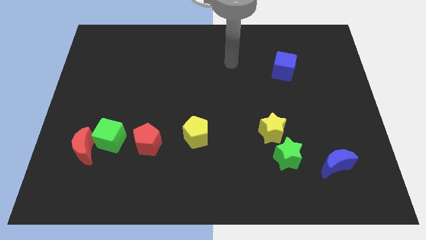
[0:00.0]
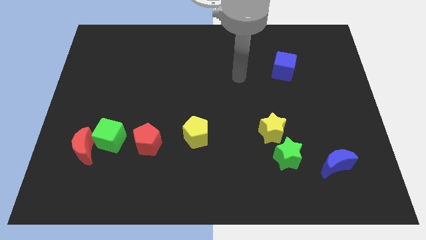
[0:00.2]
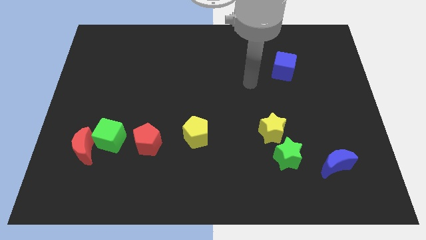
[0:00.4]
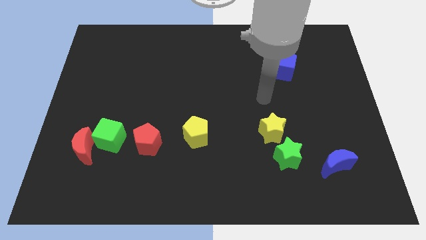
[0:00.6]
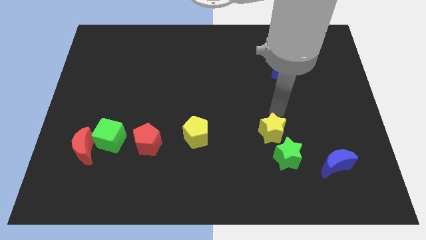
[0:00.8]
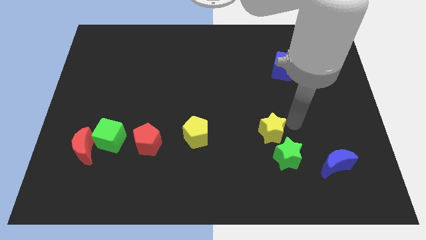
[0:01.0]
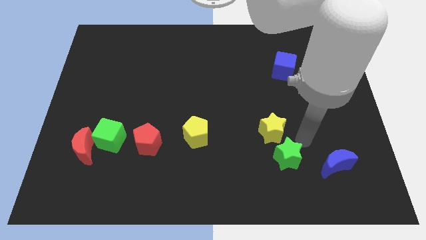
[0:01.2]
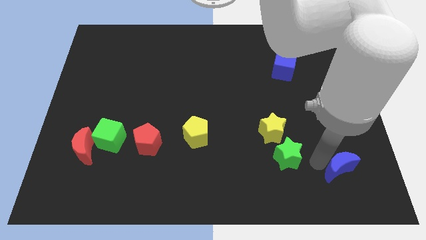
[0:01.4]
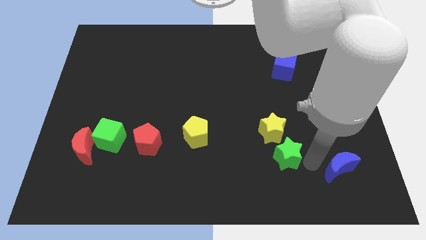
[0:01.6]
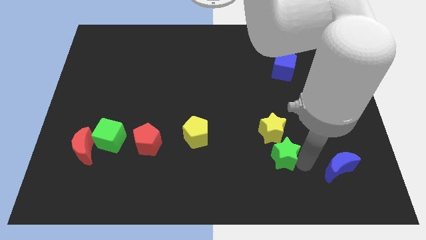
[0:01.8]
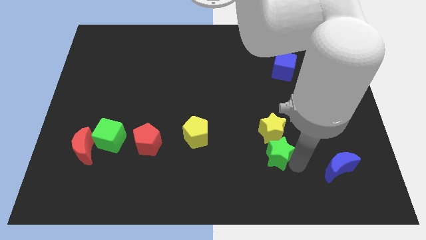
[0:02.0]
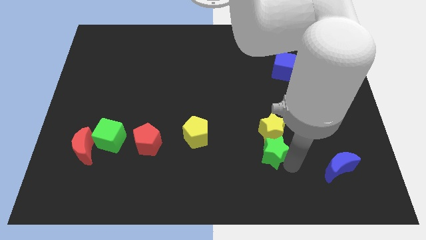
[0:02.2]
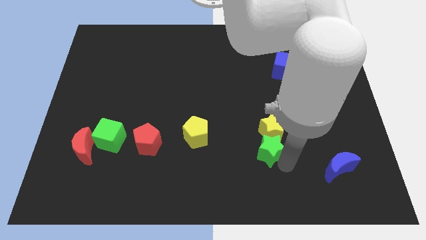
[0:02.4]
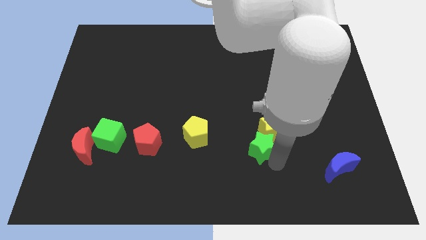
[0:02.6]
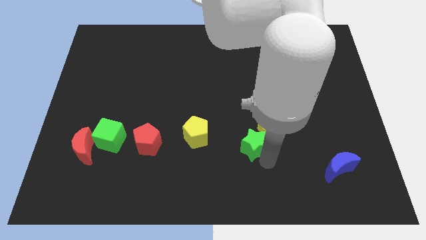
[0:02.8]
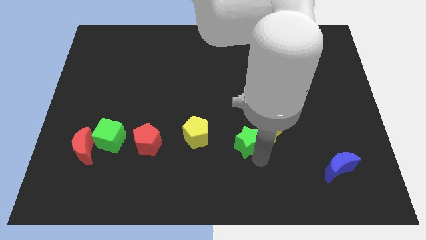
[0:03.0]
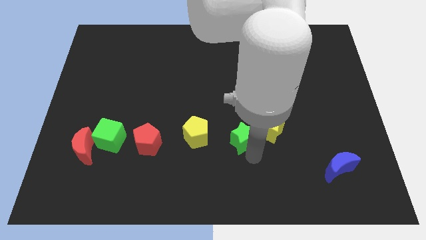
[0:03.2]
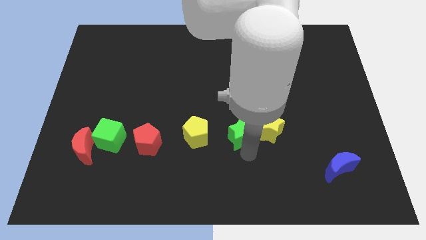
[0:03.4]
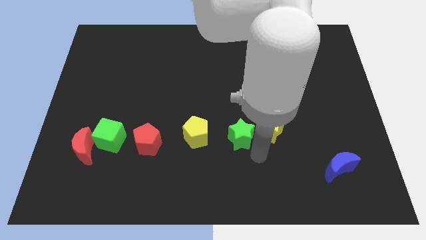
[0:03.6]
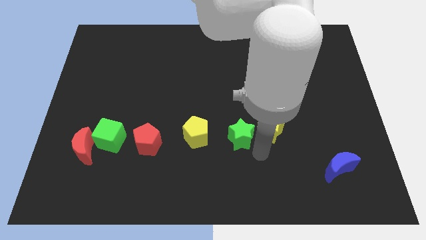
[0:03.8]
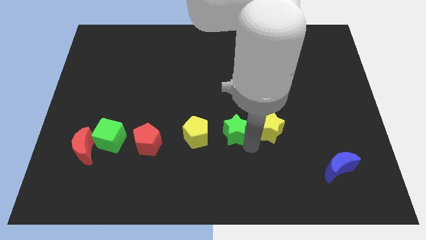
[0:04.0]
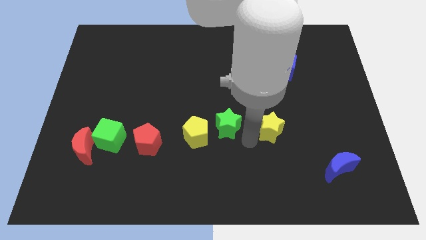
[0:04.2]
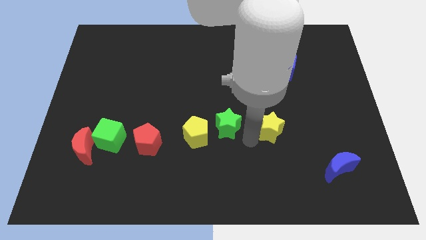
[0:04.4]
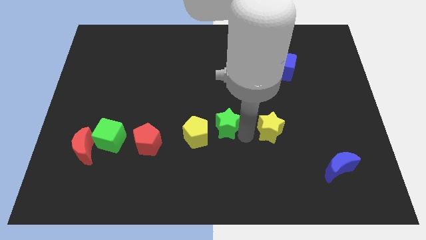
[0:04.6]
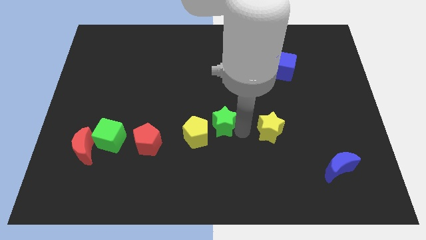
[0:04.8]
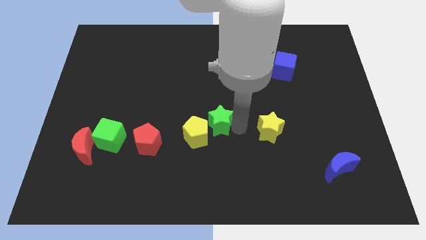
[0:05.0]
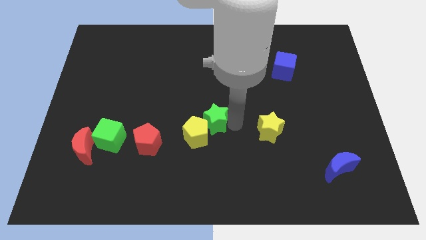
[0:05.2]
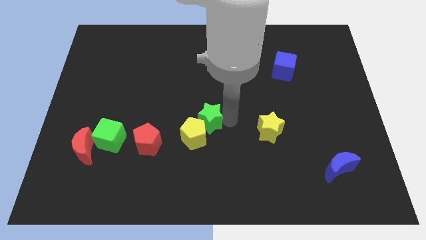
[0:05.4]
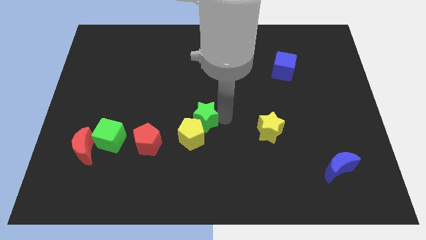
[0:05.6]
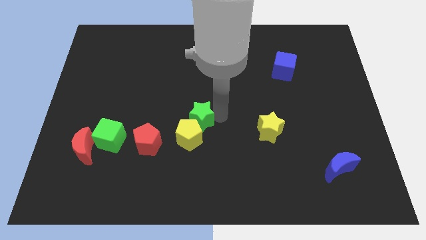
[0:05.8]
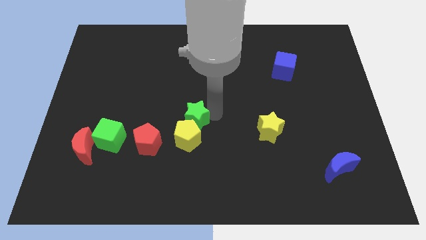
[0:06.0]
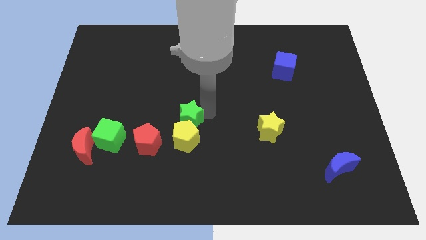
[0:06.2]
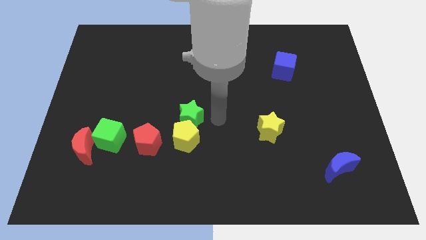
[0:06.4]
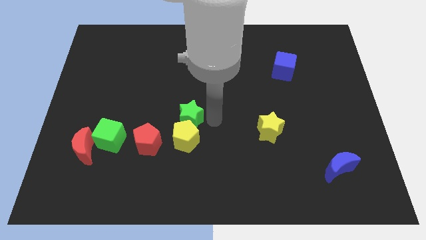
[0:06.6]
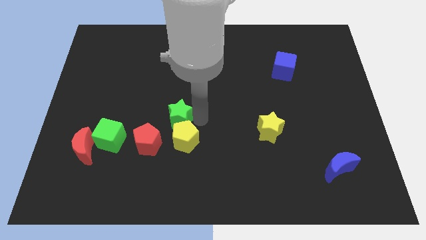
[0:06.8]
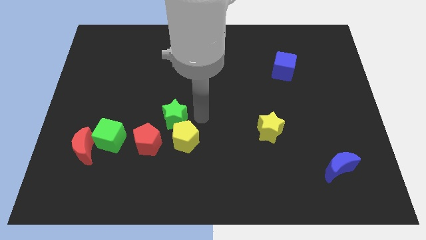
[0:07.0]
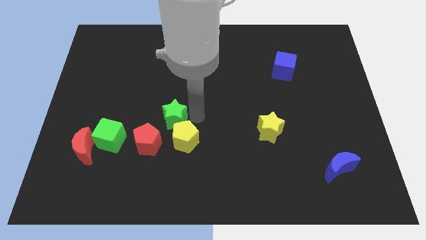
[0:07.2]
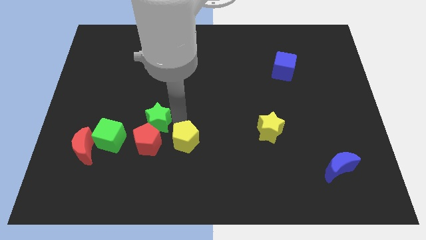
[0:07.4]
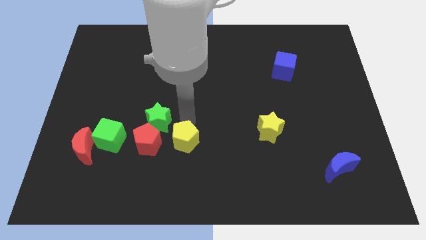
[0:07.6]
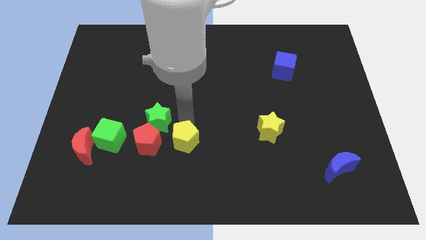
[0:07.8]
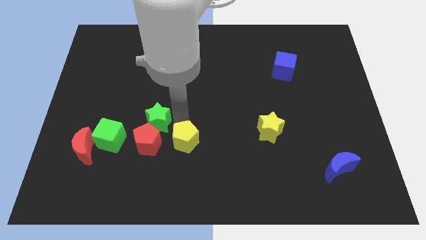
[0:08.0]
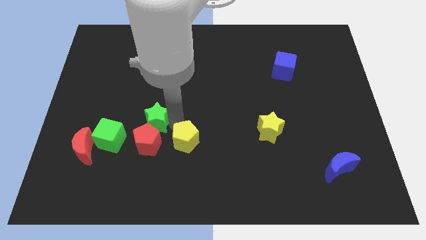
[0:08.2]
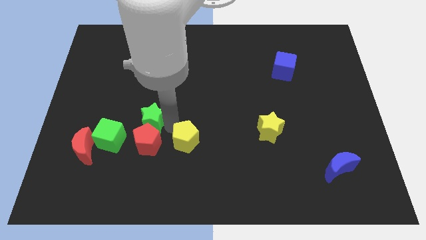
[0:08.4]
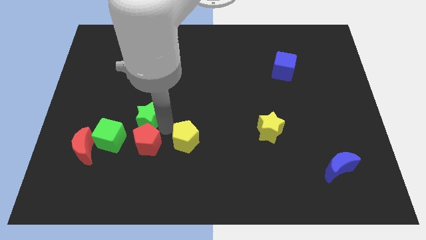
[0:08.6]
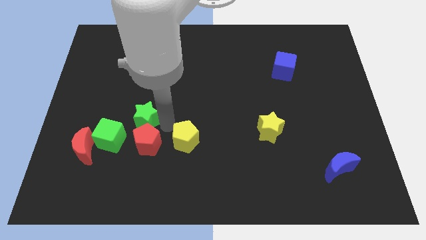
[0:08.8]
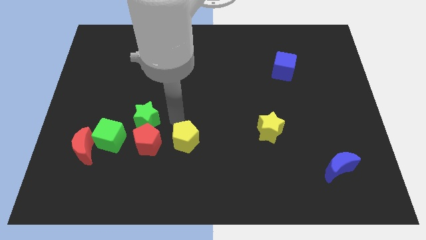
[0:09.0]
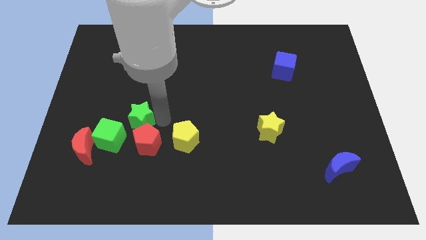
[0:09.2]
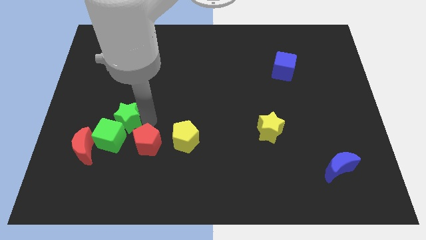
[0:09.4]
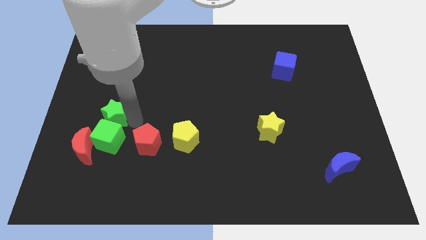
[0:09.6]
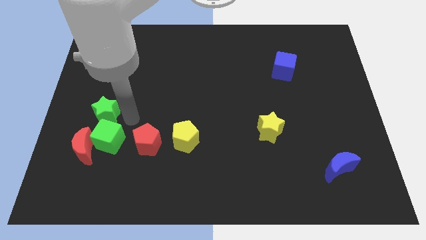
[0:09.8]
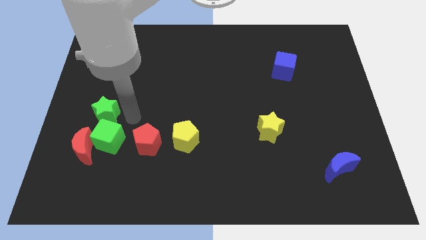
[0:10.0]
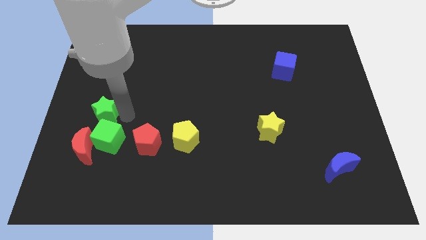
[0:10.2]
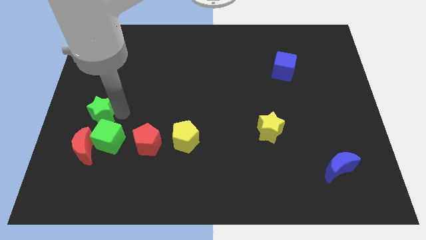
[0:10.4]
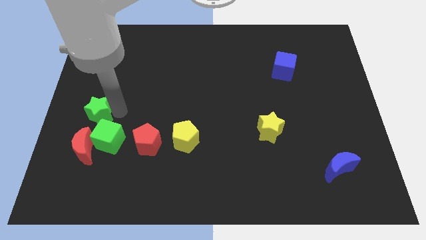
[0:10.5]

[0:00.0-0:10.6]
move the green star to the left side

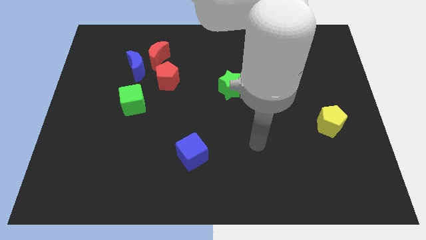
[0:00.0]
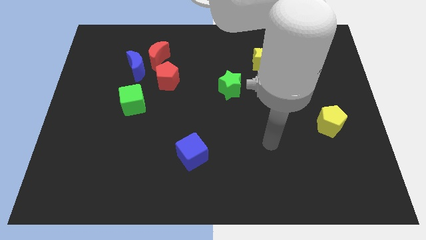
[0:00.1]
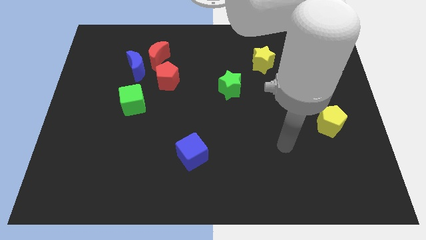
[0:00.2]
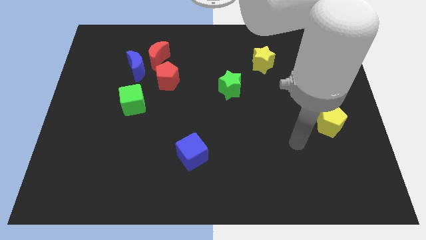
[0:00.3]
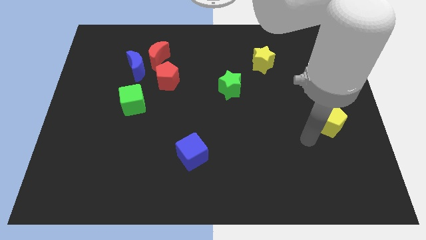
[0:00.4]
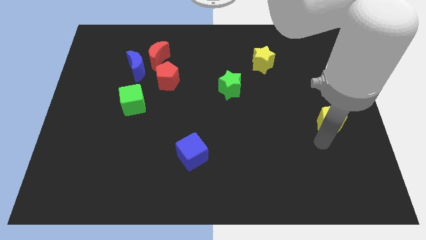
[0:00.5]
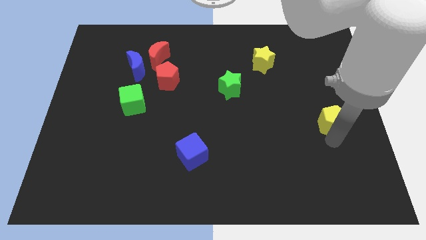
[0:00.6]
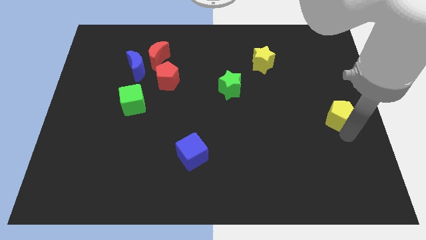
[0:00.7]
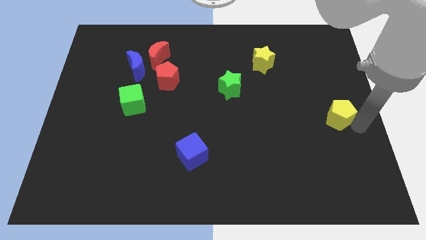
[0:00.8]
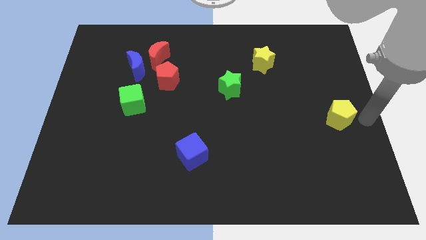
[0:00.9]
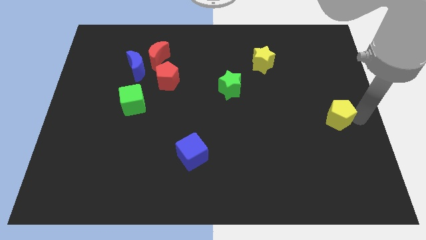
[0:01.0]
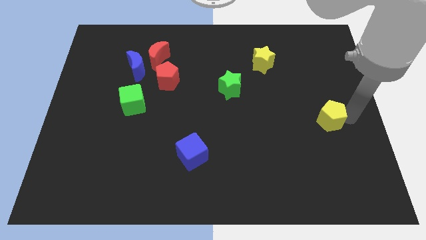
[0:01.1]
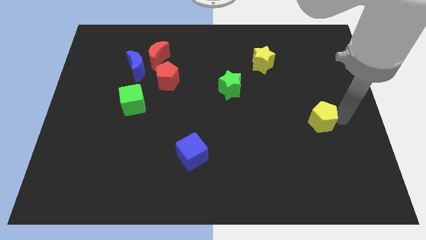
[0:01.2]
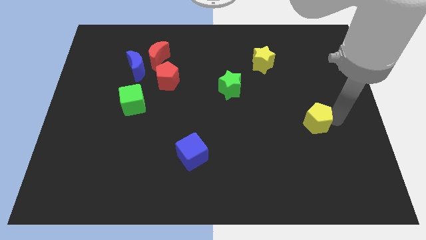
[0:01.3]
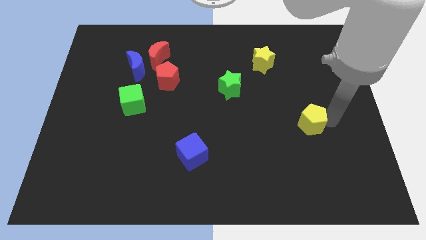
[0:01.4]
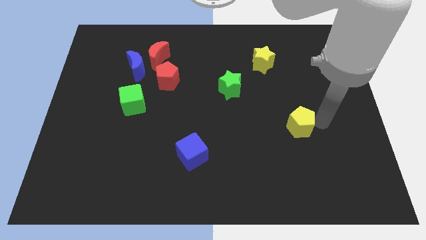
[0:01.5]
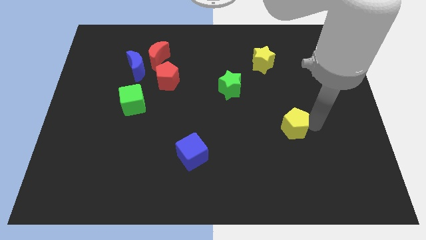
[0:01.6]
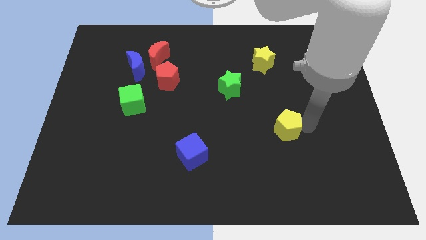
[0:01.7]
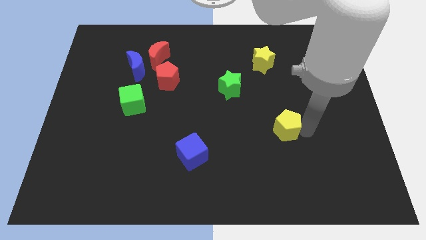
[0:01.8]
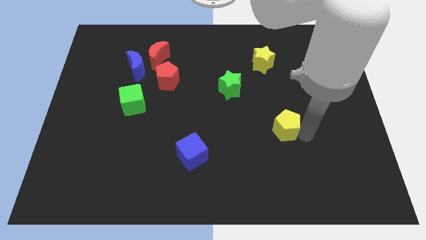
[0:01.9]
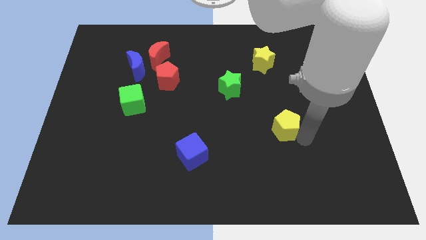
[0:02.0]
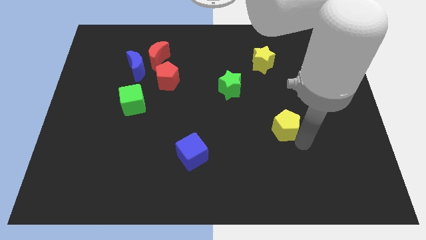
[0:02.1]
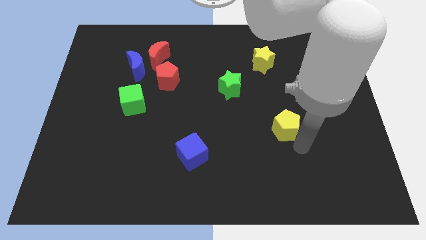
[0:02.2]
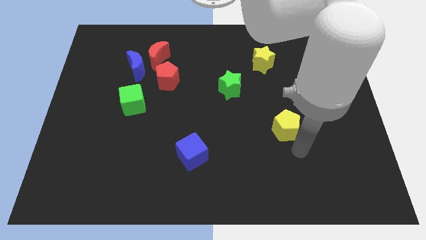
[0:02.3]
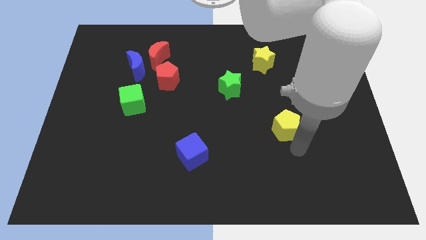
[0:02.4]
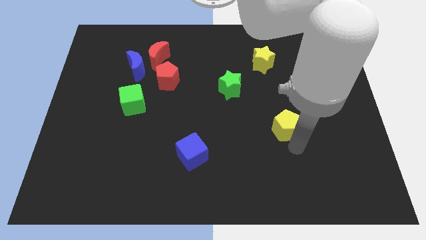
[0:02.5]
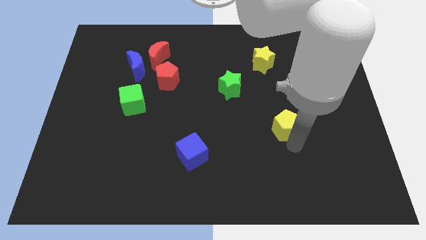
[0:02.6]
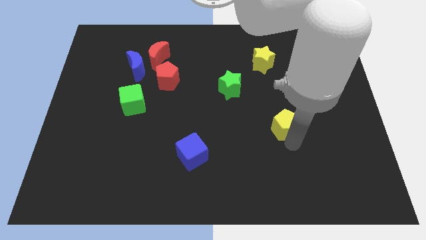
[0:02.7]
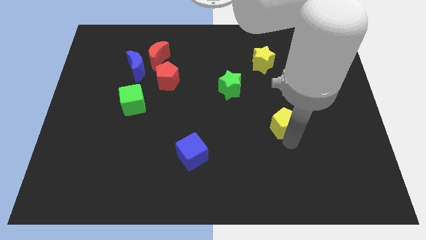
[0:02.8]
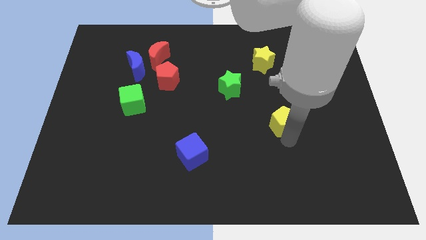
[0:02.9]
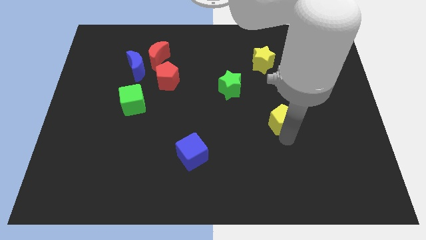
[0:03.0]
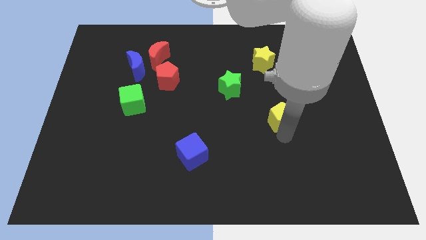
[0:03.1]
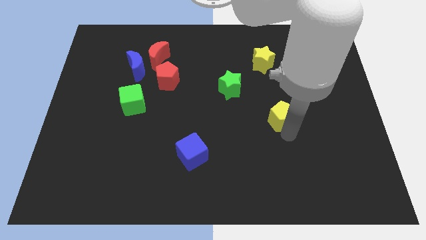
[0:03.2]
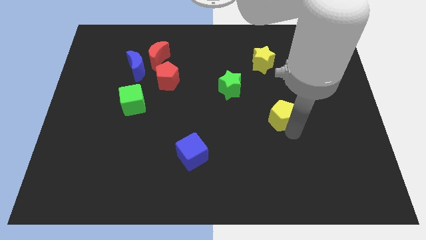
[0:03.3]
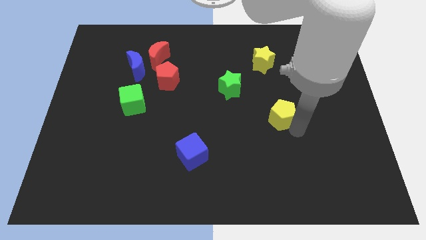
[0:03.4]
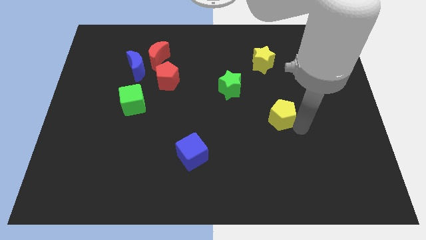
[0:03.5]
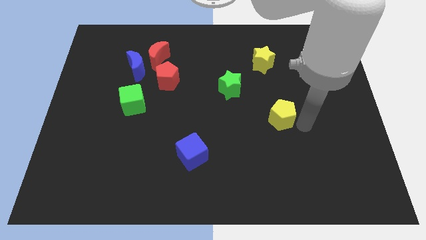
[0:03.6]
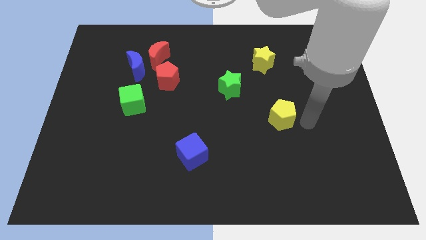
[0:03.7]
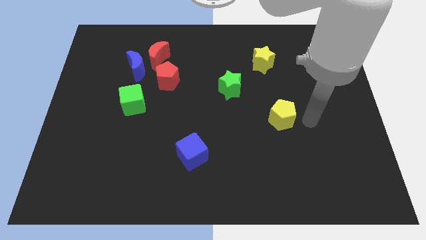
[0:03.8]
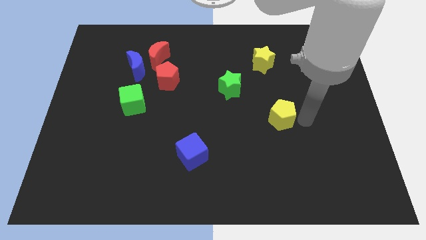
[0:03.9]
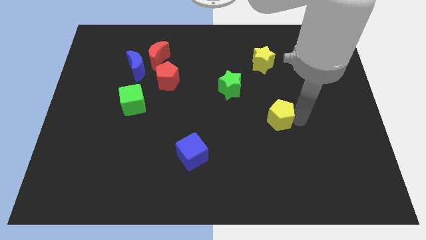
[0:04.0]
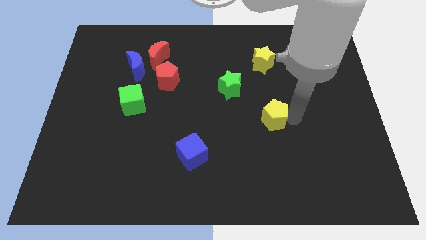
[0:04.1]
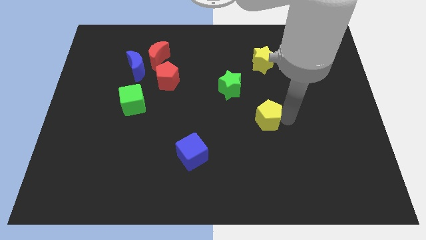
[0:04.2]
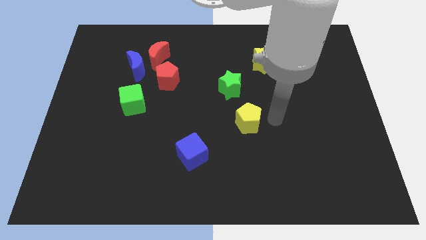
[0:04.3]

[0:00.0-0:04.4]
push the yellow pentagon to the center
